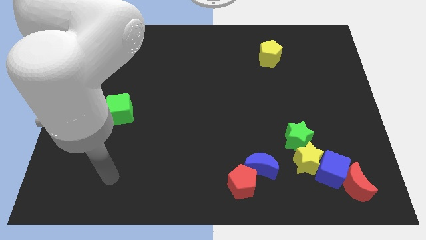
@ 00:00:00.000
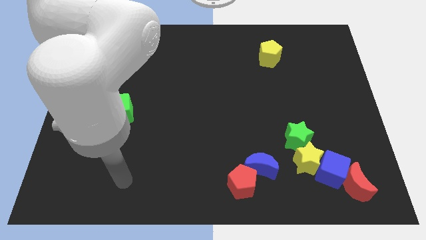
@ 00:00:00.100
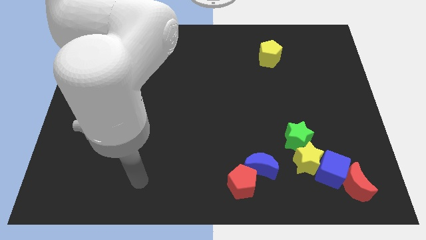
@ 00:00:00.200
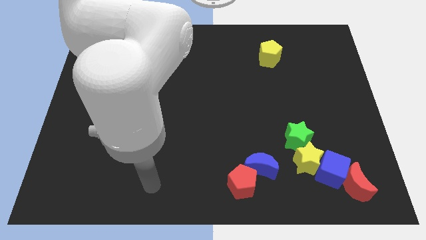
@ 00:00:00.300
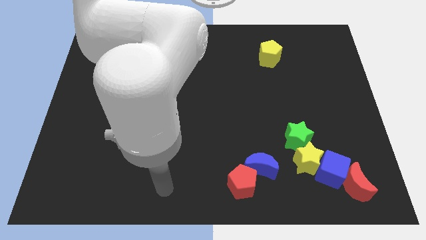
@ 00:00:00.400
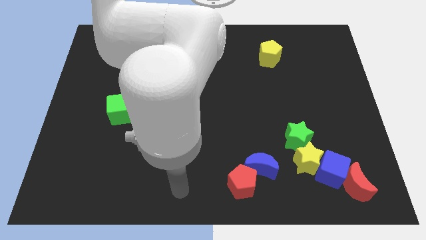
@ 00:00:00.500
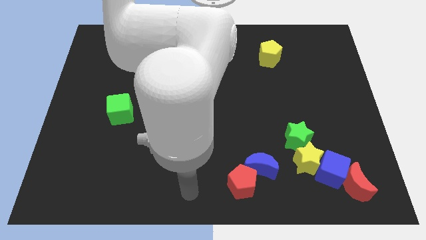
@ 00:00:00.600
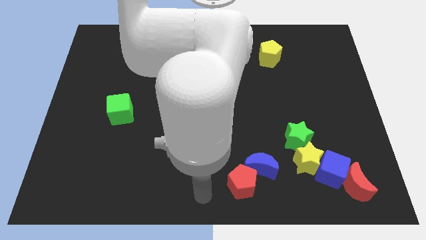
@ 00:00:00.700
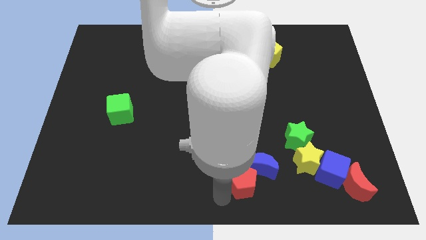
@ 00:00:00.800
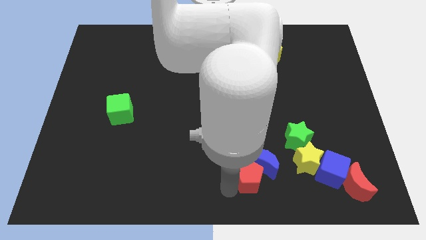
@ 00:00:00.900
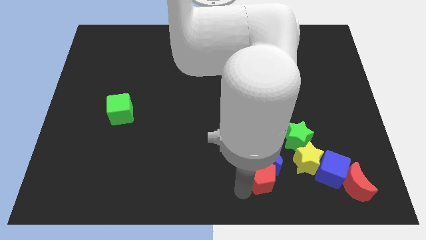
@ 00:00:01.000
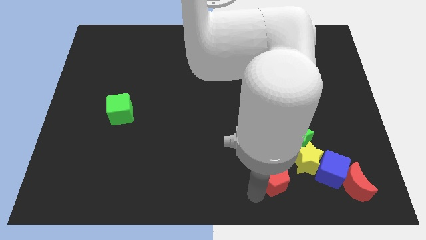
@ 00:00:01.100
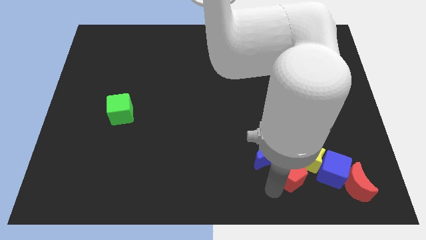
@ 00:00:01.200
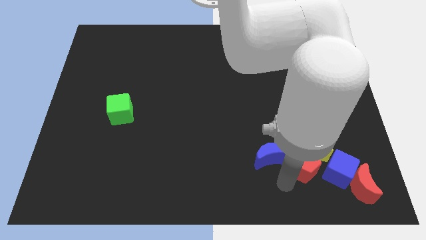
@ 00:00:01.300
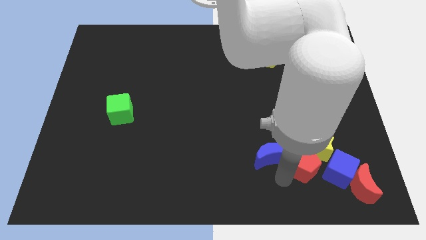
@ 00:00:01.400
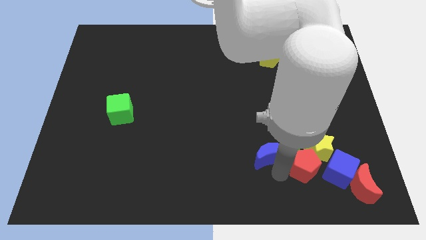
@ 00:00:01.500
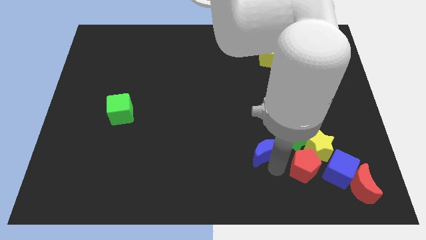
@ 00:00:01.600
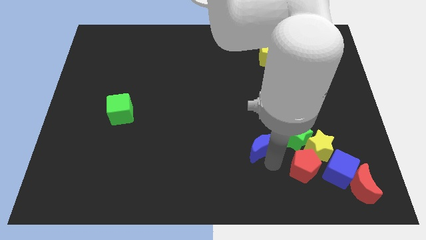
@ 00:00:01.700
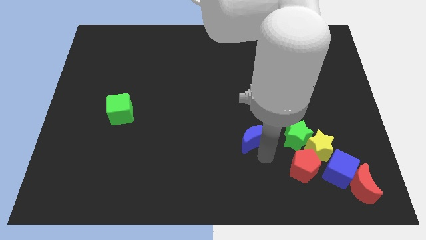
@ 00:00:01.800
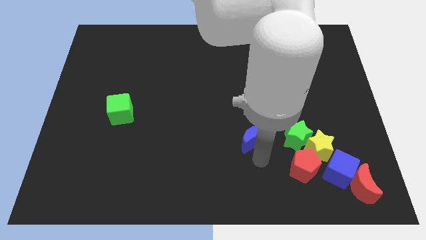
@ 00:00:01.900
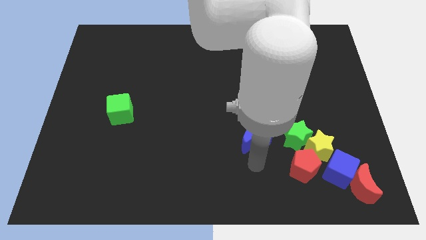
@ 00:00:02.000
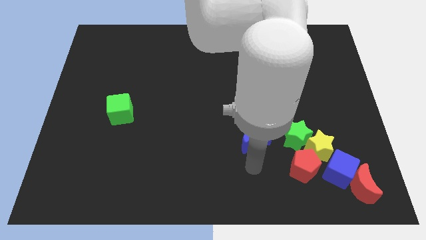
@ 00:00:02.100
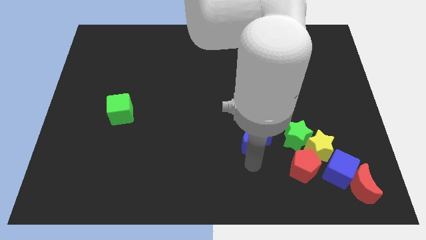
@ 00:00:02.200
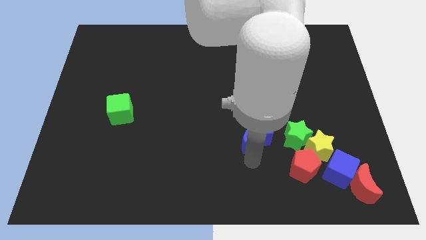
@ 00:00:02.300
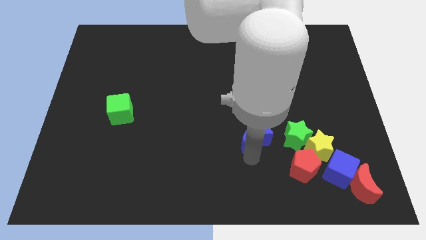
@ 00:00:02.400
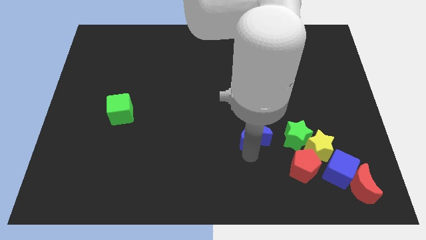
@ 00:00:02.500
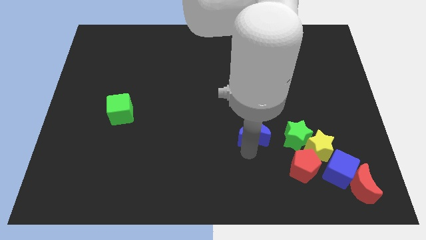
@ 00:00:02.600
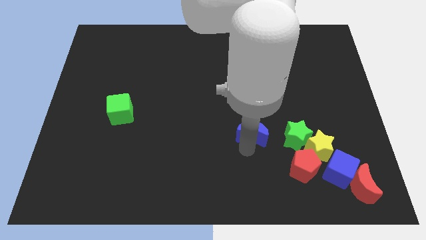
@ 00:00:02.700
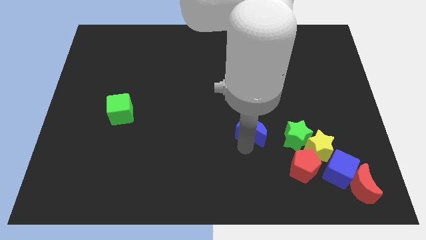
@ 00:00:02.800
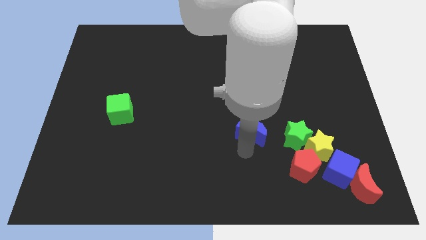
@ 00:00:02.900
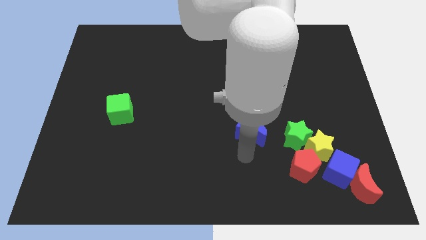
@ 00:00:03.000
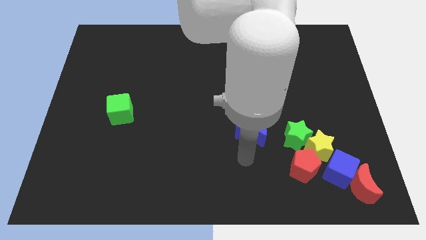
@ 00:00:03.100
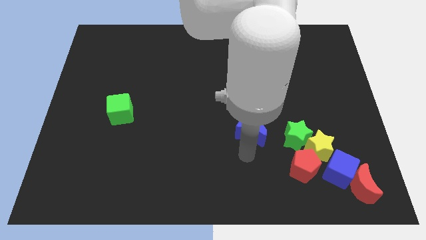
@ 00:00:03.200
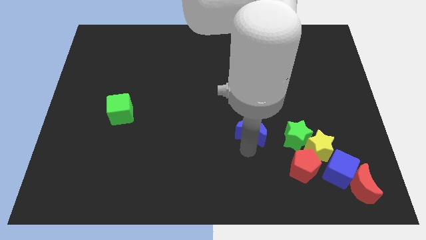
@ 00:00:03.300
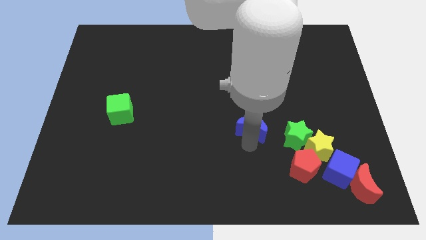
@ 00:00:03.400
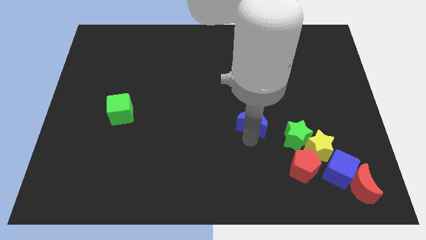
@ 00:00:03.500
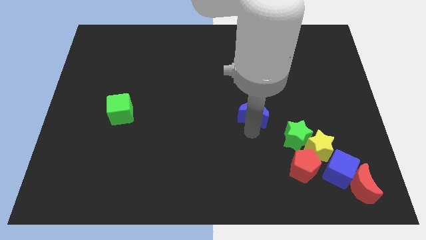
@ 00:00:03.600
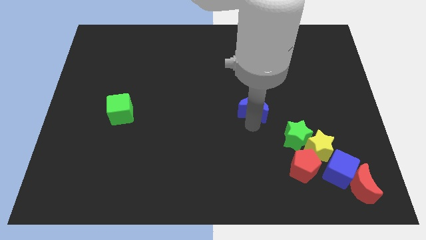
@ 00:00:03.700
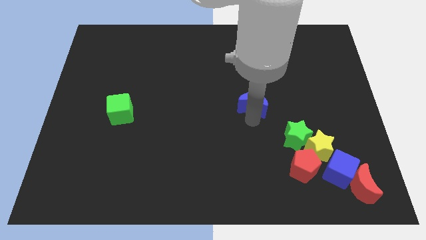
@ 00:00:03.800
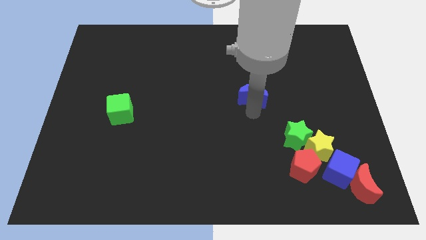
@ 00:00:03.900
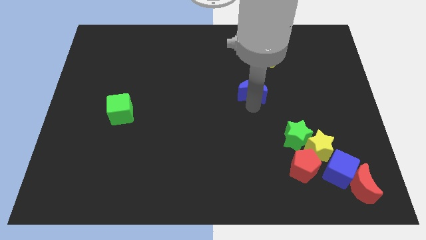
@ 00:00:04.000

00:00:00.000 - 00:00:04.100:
push the blue moon up

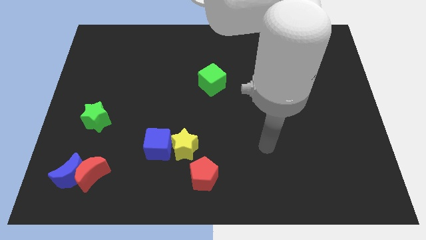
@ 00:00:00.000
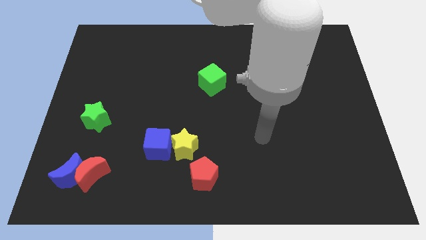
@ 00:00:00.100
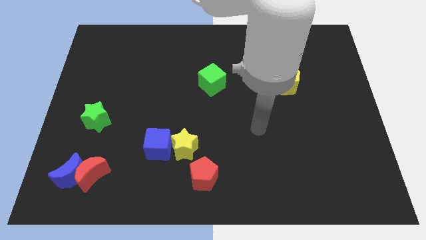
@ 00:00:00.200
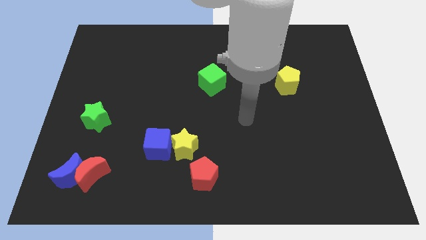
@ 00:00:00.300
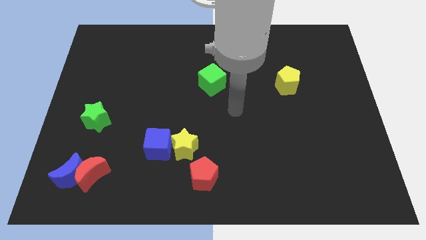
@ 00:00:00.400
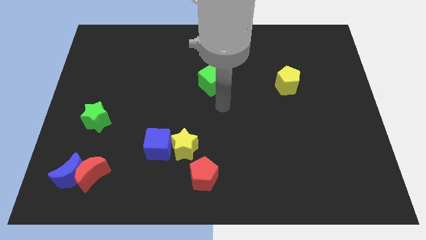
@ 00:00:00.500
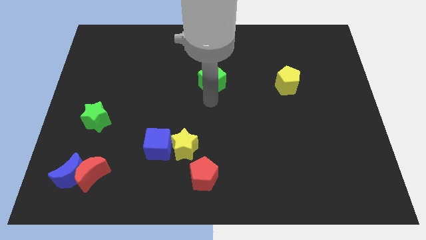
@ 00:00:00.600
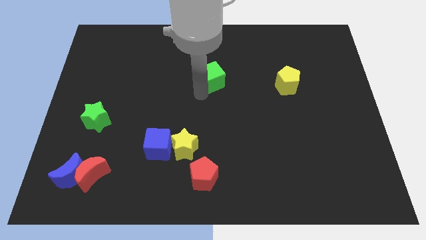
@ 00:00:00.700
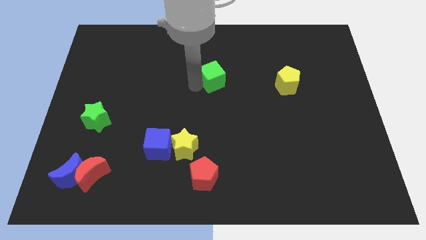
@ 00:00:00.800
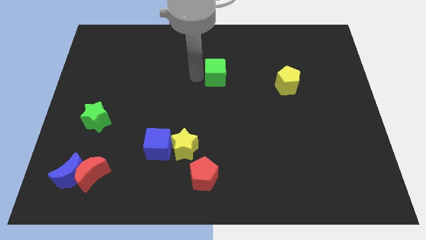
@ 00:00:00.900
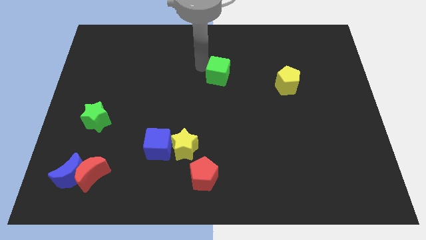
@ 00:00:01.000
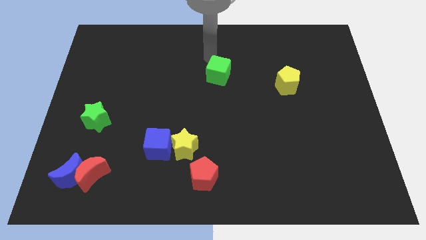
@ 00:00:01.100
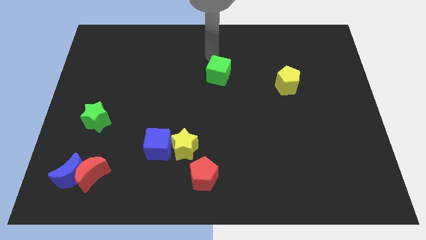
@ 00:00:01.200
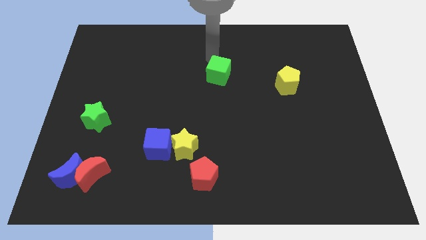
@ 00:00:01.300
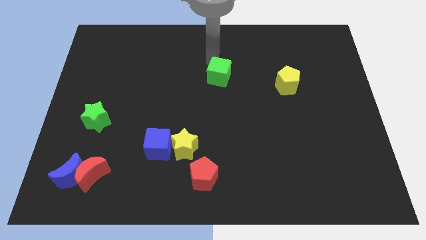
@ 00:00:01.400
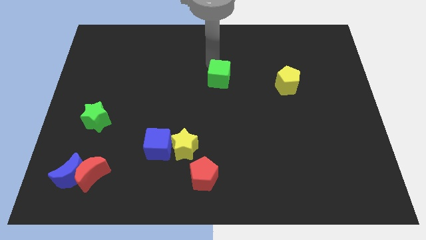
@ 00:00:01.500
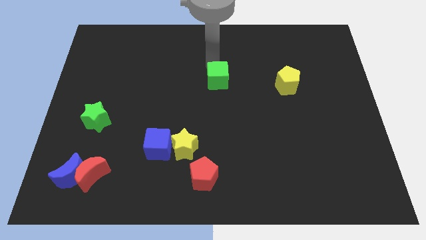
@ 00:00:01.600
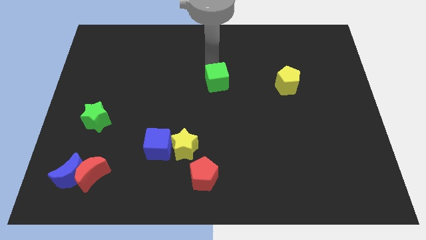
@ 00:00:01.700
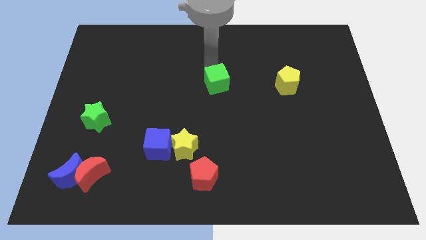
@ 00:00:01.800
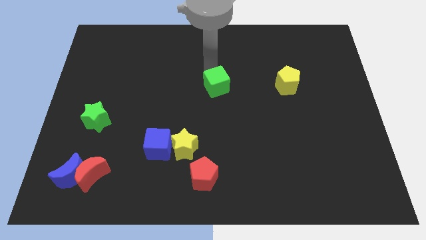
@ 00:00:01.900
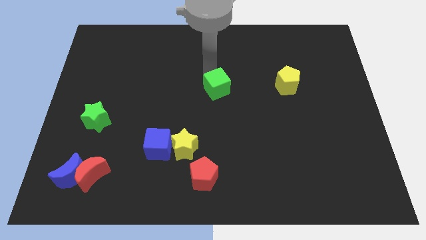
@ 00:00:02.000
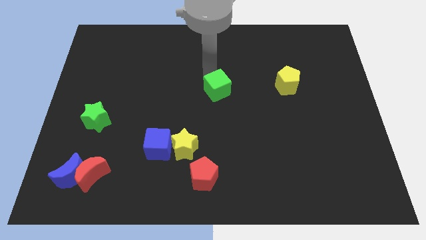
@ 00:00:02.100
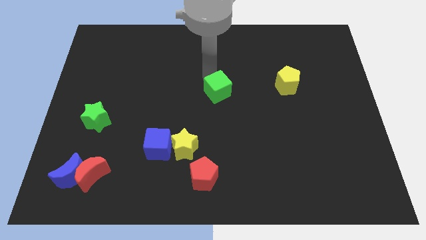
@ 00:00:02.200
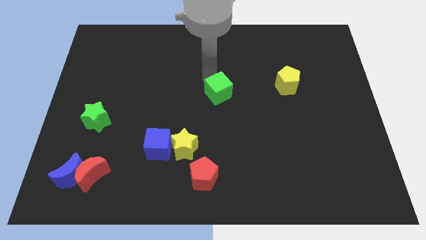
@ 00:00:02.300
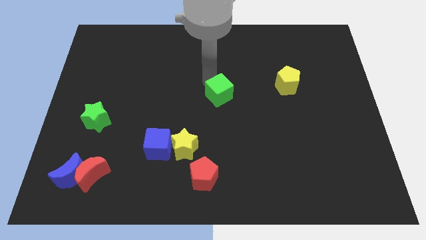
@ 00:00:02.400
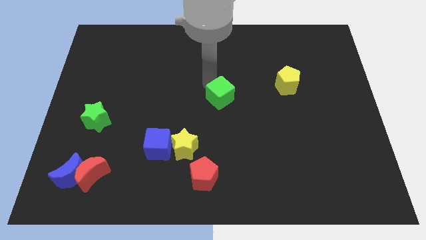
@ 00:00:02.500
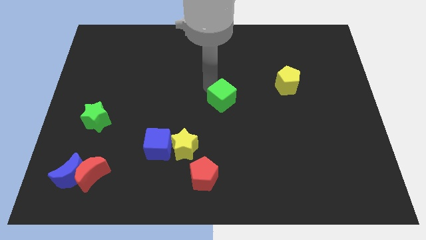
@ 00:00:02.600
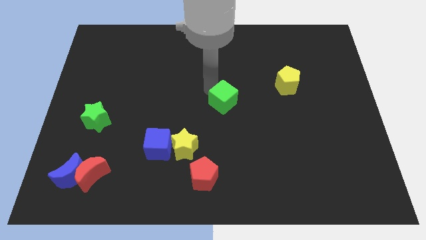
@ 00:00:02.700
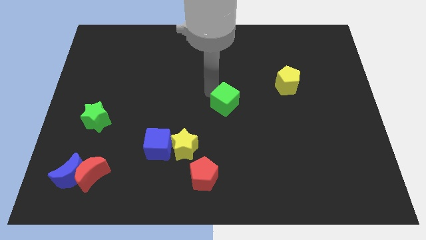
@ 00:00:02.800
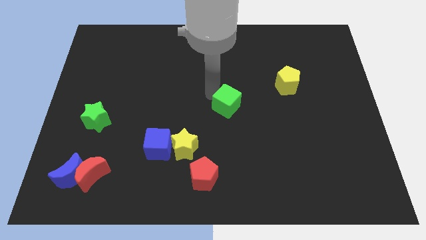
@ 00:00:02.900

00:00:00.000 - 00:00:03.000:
slide the green cube a bit down and right

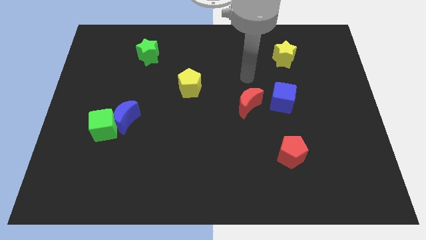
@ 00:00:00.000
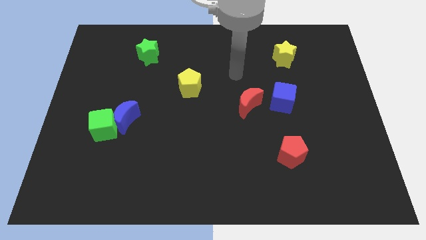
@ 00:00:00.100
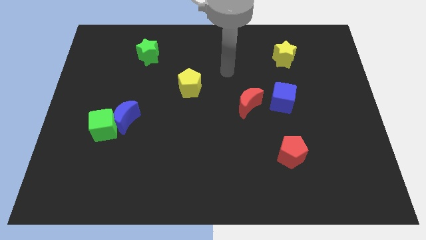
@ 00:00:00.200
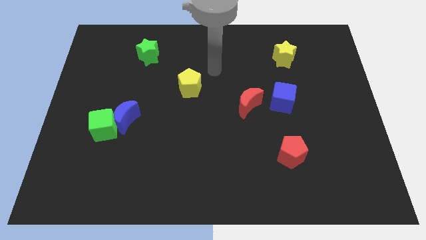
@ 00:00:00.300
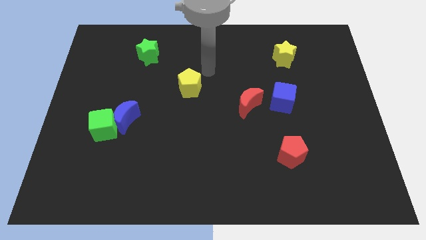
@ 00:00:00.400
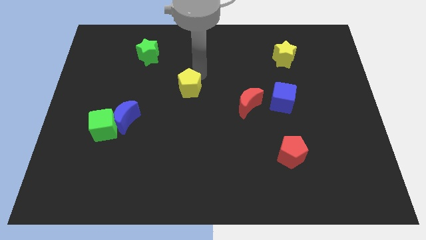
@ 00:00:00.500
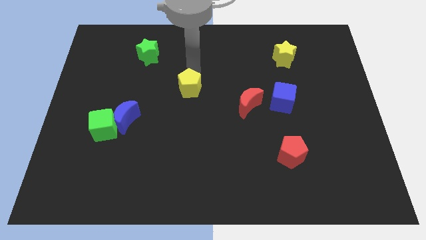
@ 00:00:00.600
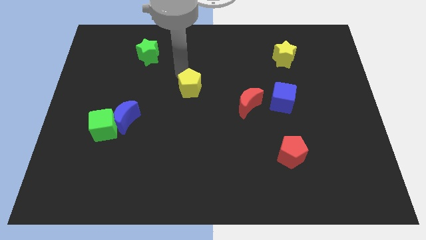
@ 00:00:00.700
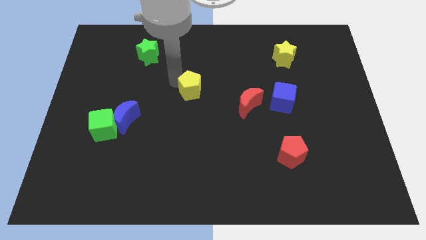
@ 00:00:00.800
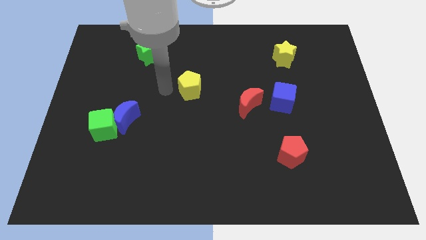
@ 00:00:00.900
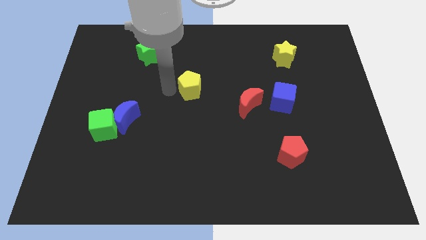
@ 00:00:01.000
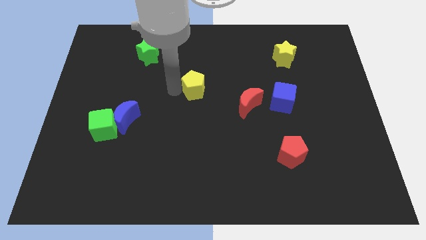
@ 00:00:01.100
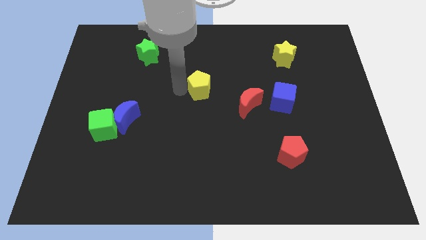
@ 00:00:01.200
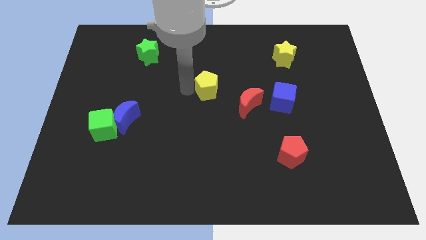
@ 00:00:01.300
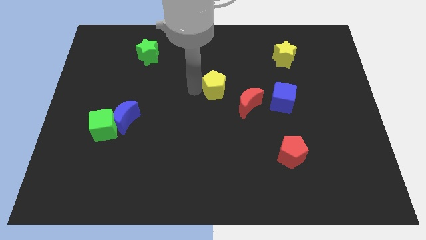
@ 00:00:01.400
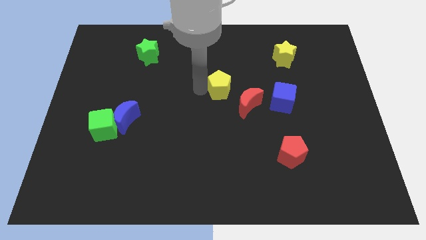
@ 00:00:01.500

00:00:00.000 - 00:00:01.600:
slide the yellow pentagon a bit right
